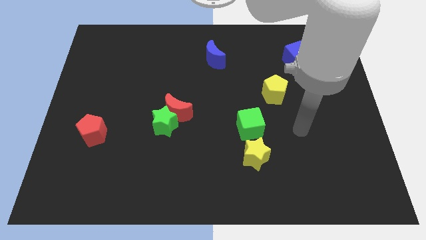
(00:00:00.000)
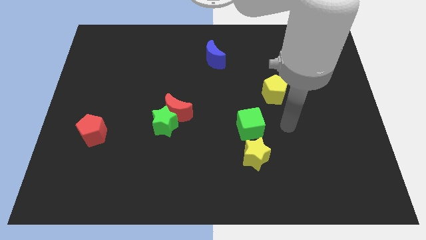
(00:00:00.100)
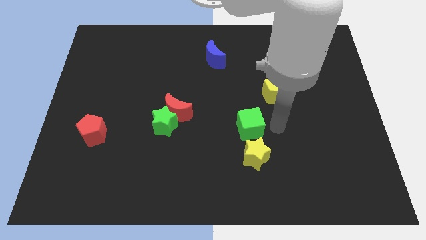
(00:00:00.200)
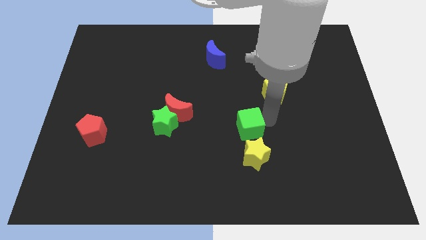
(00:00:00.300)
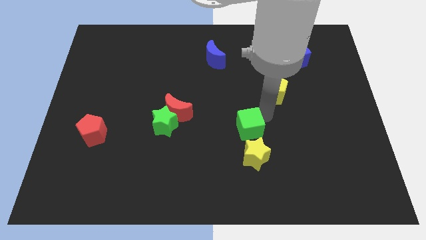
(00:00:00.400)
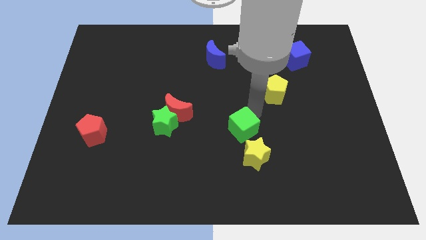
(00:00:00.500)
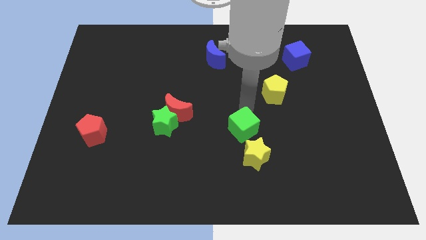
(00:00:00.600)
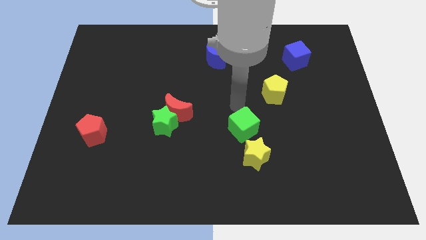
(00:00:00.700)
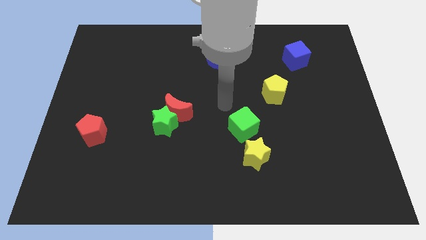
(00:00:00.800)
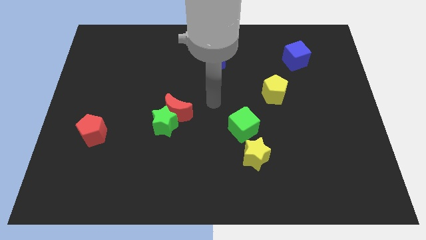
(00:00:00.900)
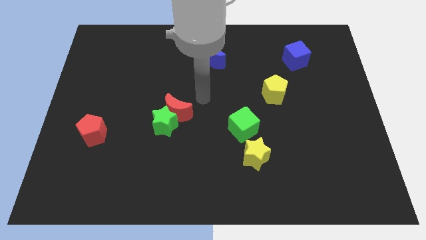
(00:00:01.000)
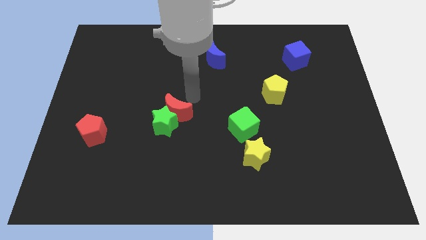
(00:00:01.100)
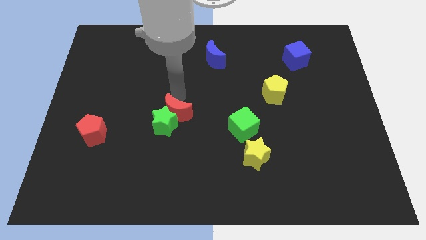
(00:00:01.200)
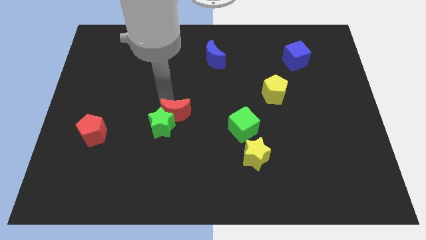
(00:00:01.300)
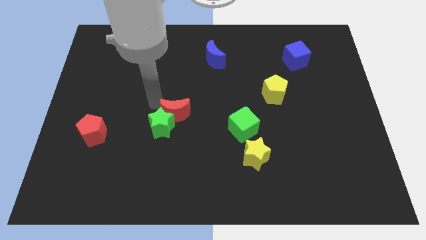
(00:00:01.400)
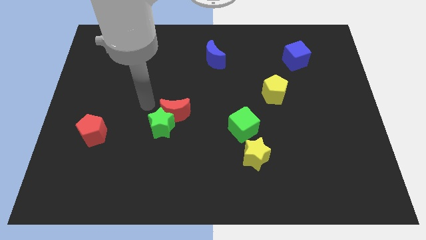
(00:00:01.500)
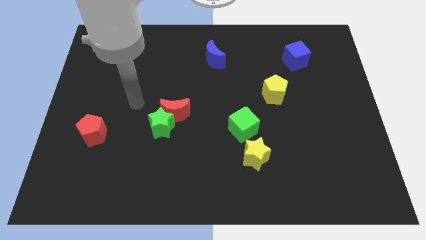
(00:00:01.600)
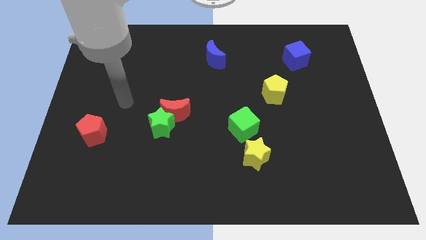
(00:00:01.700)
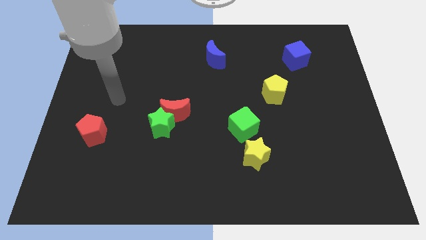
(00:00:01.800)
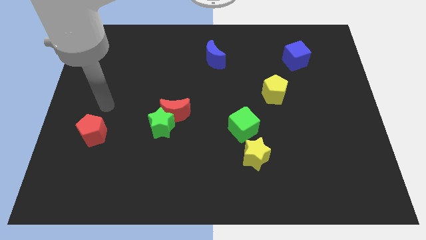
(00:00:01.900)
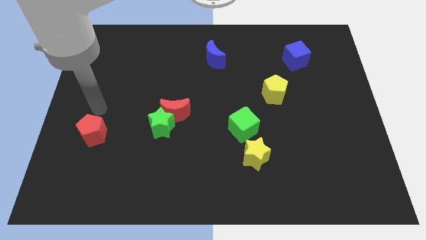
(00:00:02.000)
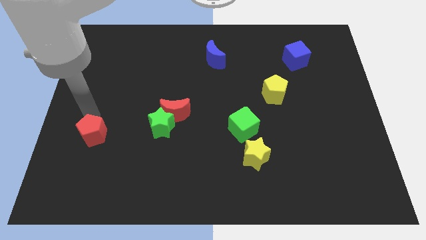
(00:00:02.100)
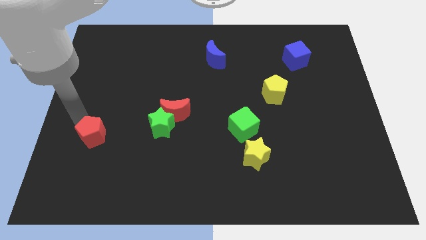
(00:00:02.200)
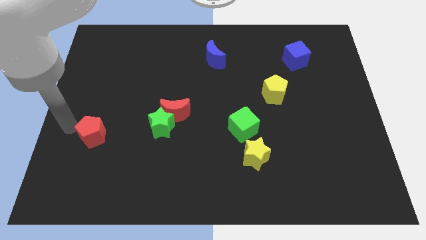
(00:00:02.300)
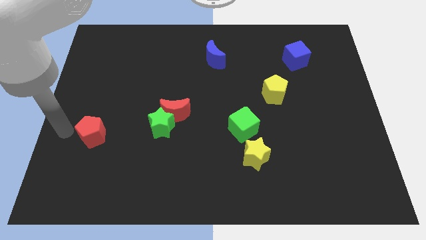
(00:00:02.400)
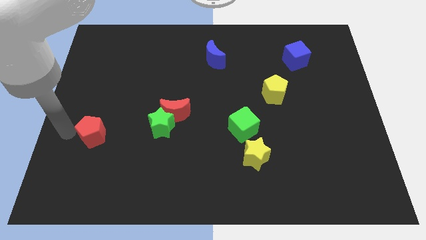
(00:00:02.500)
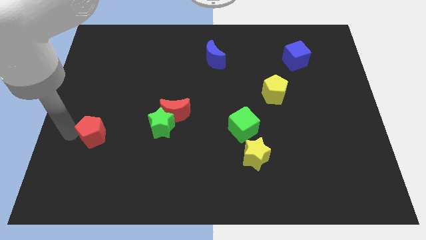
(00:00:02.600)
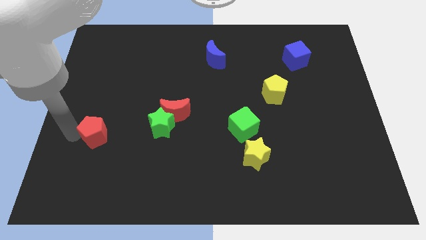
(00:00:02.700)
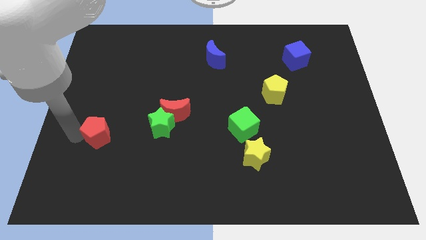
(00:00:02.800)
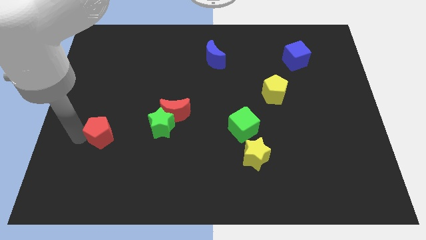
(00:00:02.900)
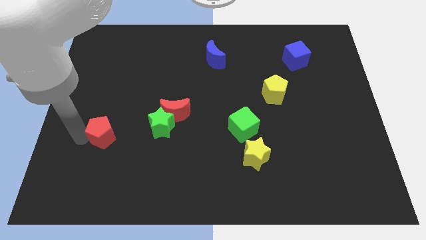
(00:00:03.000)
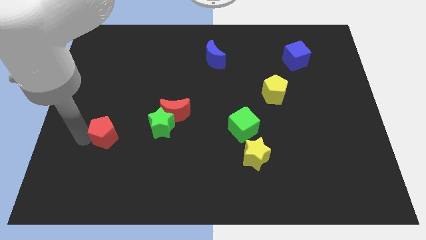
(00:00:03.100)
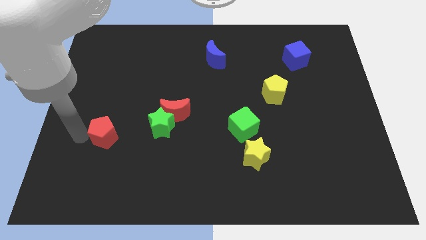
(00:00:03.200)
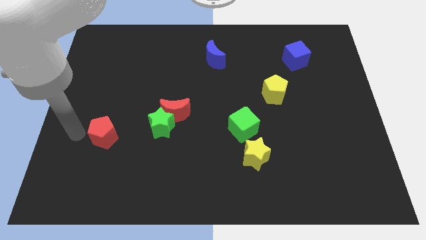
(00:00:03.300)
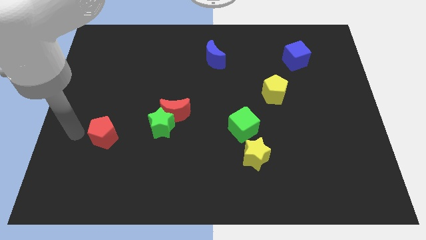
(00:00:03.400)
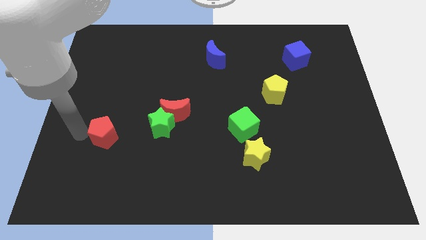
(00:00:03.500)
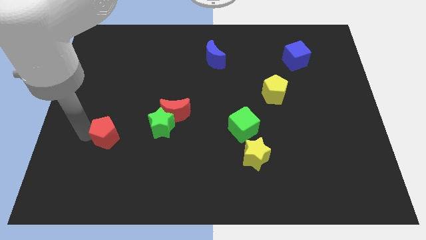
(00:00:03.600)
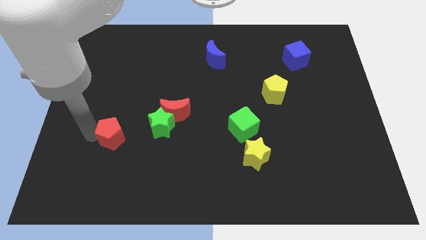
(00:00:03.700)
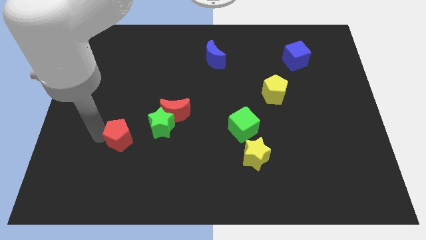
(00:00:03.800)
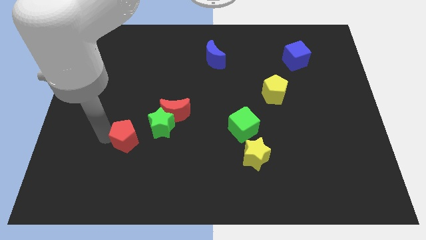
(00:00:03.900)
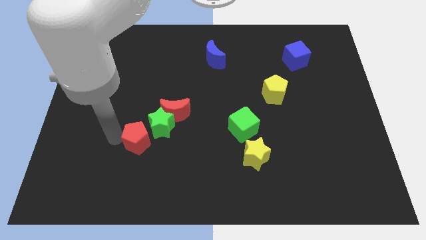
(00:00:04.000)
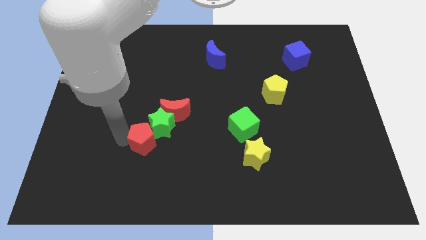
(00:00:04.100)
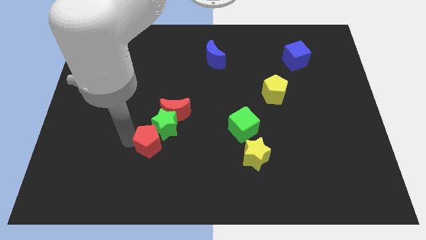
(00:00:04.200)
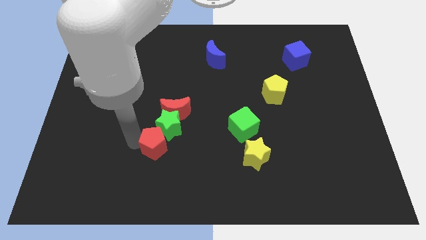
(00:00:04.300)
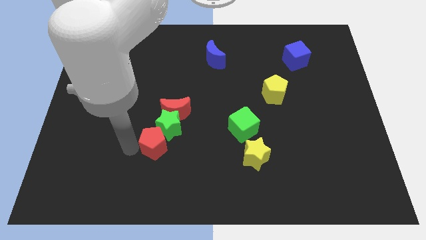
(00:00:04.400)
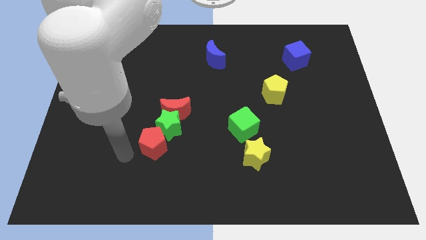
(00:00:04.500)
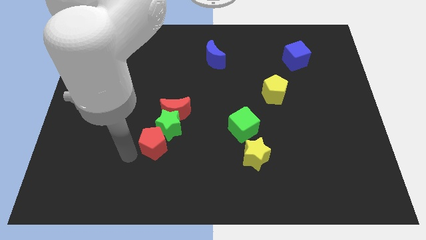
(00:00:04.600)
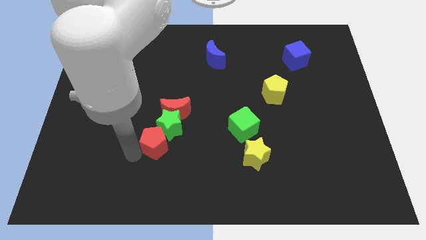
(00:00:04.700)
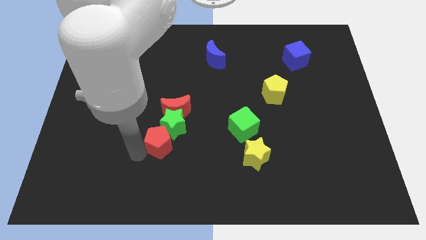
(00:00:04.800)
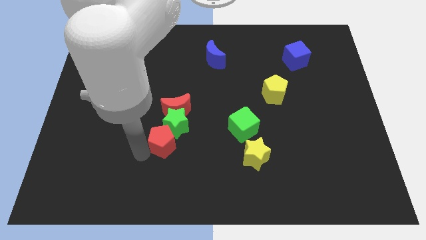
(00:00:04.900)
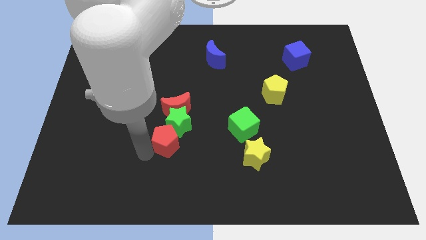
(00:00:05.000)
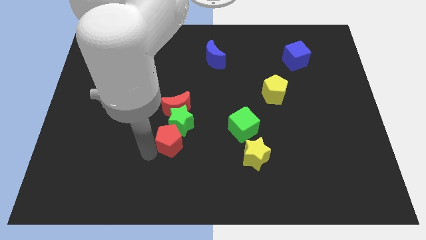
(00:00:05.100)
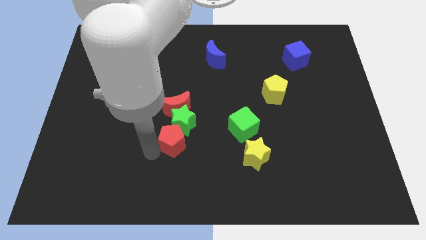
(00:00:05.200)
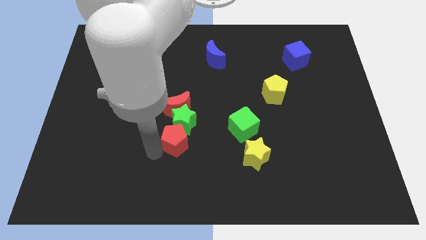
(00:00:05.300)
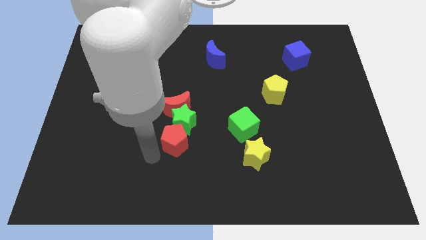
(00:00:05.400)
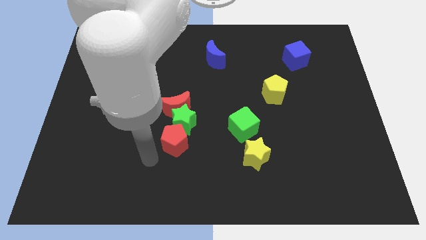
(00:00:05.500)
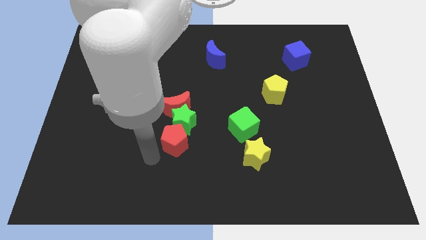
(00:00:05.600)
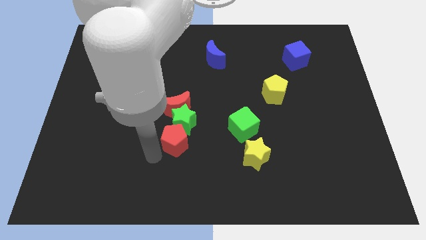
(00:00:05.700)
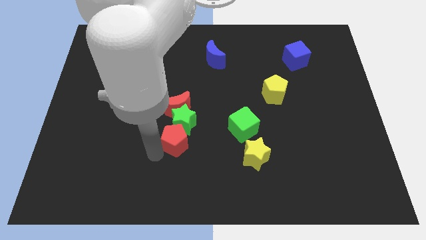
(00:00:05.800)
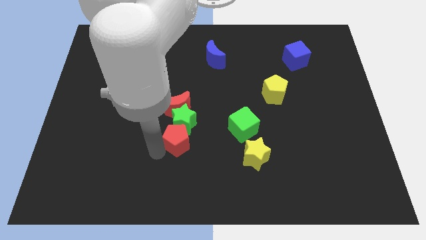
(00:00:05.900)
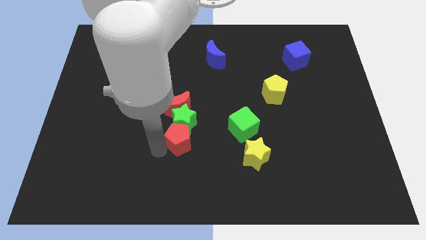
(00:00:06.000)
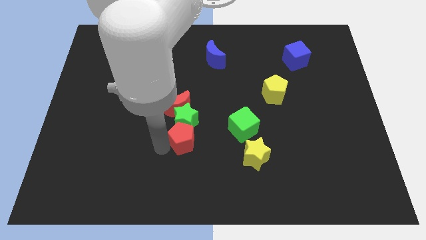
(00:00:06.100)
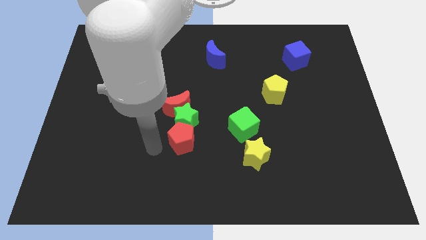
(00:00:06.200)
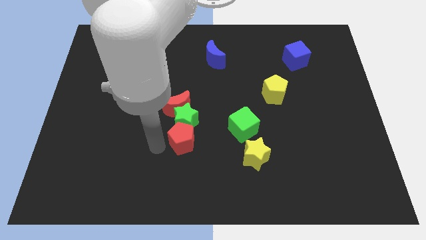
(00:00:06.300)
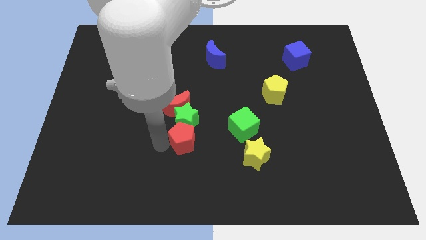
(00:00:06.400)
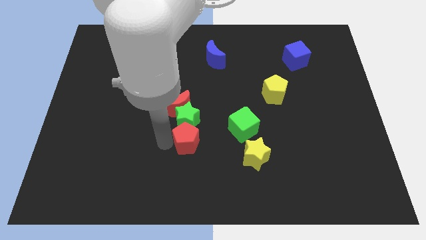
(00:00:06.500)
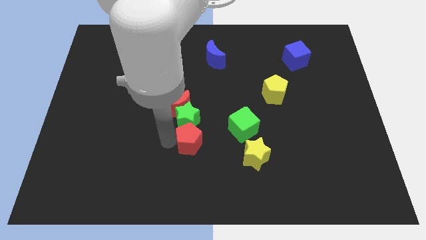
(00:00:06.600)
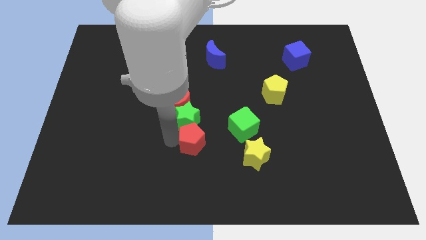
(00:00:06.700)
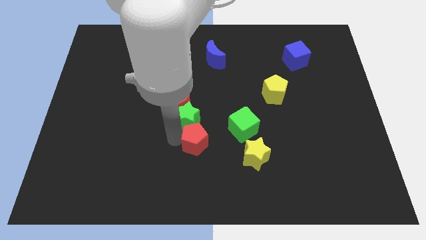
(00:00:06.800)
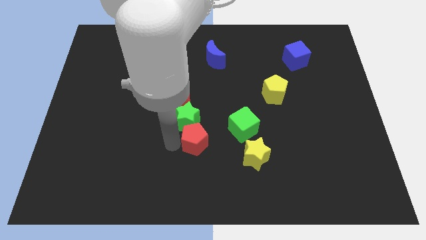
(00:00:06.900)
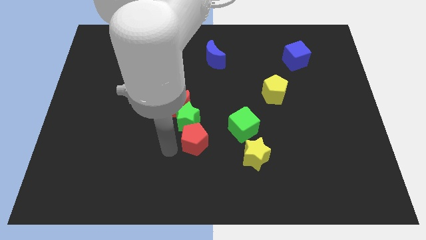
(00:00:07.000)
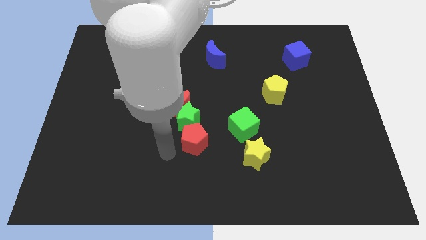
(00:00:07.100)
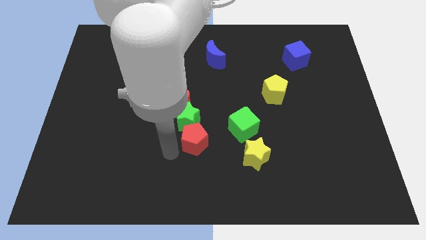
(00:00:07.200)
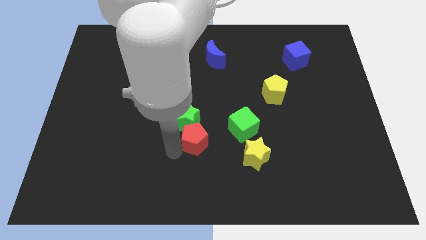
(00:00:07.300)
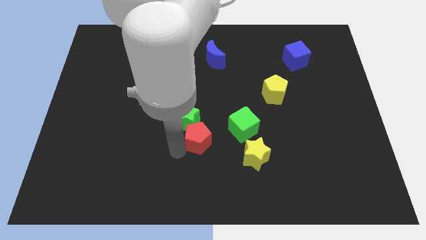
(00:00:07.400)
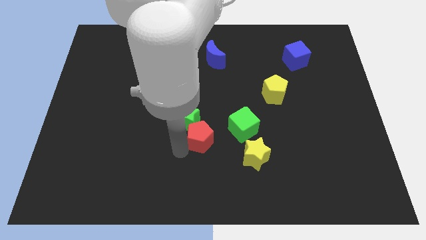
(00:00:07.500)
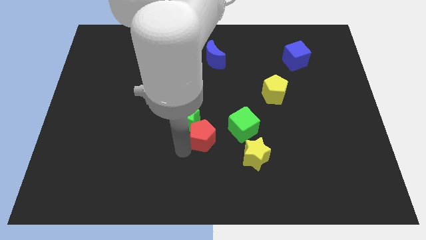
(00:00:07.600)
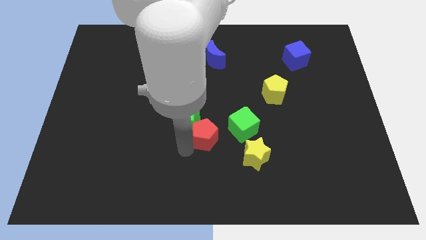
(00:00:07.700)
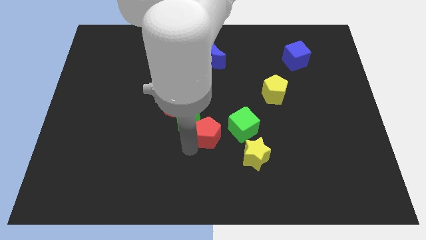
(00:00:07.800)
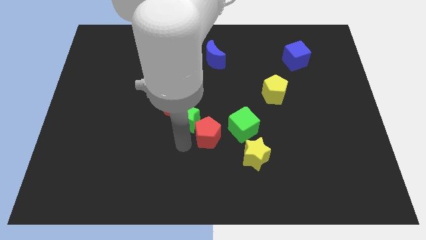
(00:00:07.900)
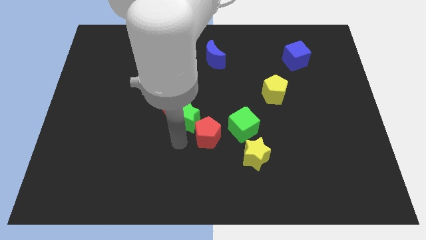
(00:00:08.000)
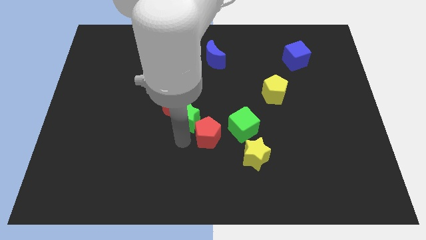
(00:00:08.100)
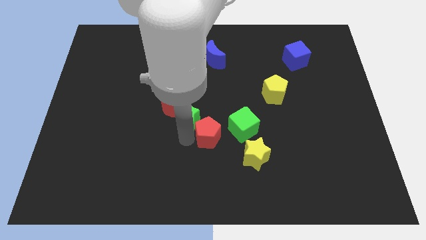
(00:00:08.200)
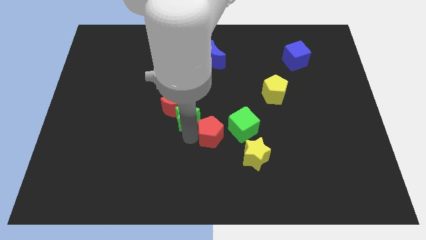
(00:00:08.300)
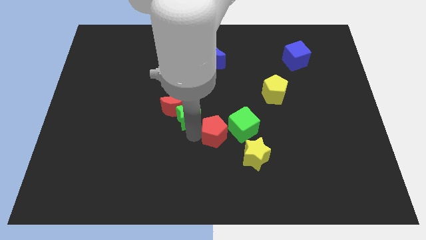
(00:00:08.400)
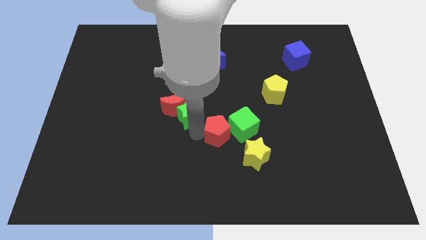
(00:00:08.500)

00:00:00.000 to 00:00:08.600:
move the red pentagon towards the green cube
